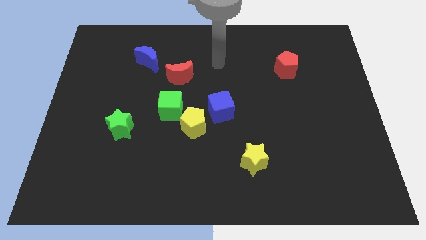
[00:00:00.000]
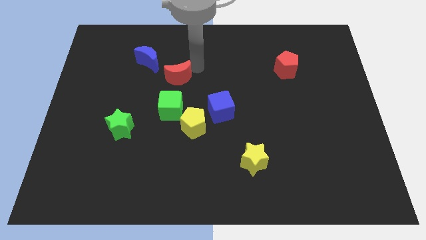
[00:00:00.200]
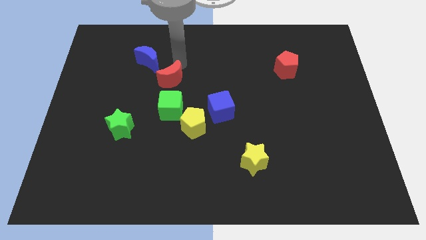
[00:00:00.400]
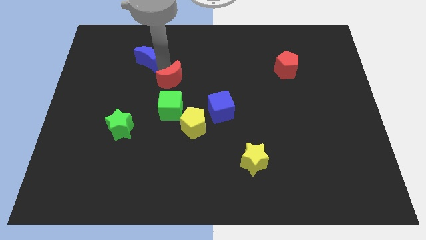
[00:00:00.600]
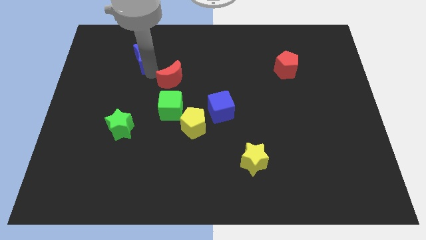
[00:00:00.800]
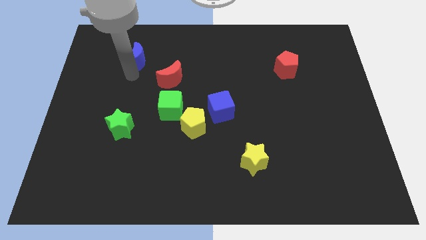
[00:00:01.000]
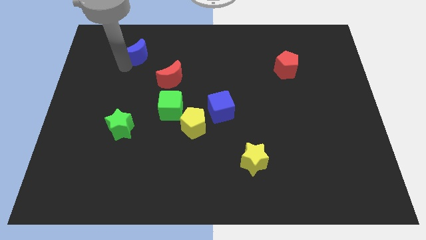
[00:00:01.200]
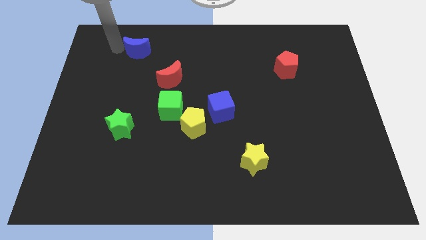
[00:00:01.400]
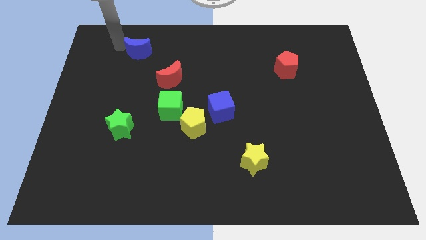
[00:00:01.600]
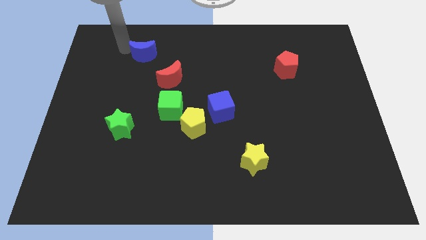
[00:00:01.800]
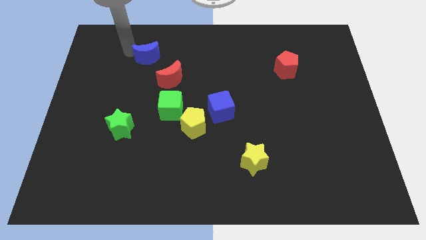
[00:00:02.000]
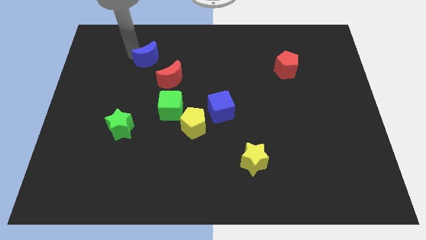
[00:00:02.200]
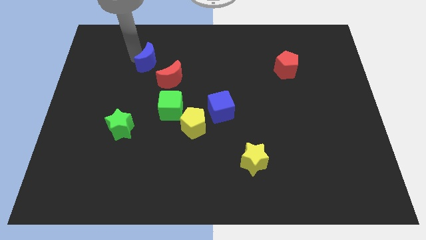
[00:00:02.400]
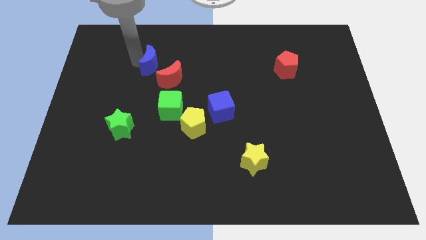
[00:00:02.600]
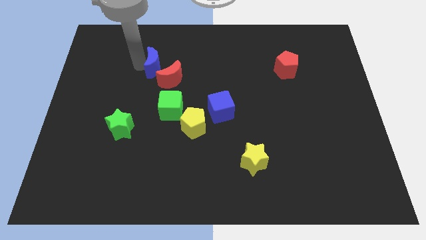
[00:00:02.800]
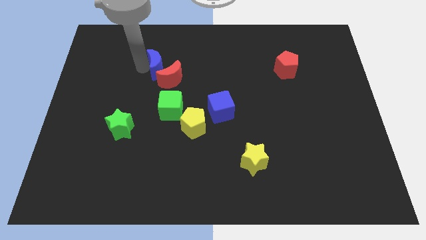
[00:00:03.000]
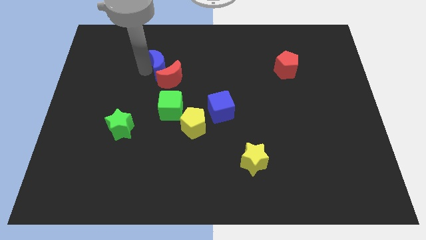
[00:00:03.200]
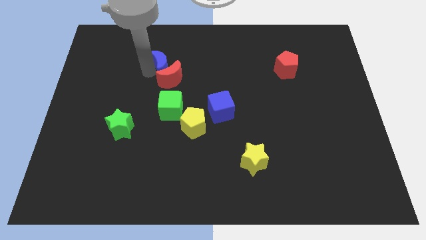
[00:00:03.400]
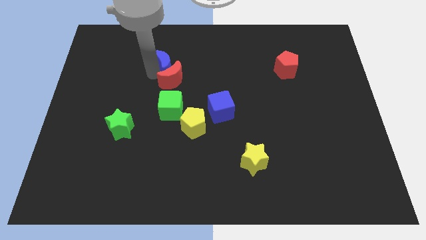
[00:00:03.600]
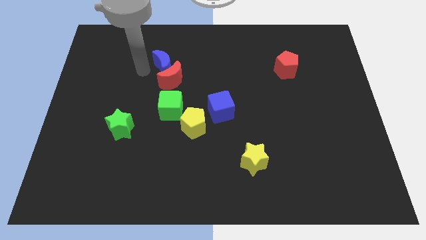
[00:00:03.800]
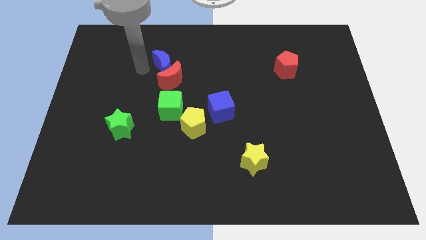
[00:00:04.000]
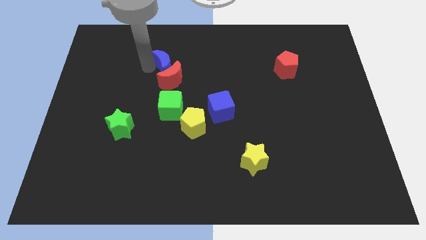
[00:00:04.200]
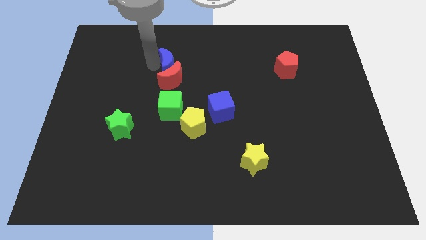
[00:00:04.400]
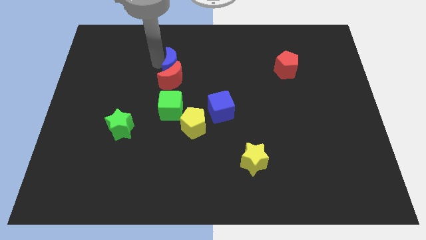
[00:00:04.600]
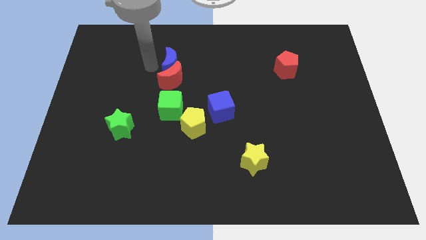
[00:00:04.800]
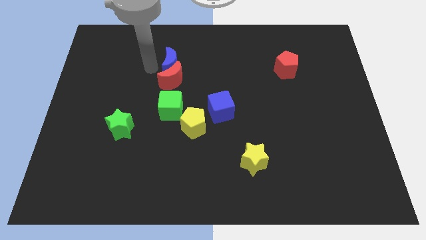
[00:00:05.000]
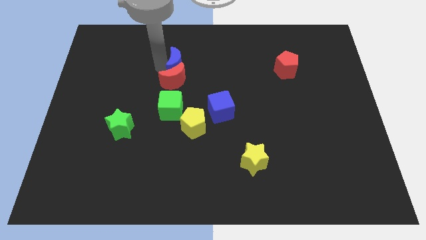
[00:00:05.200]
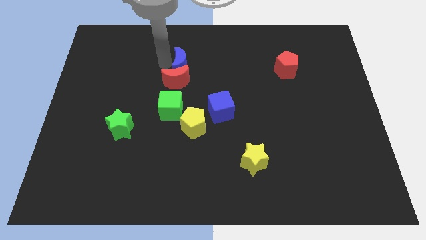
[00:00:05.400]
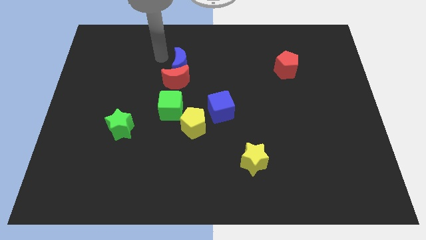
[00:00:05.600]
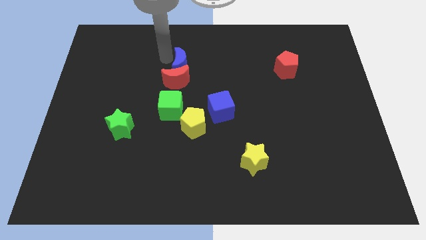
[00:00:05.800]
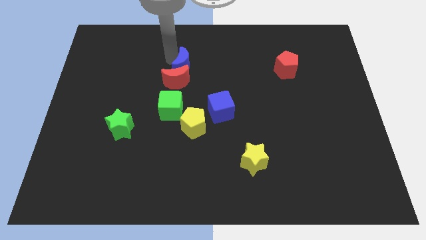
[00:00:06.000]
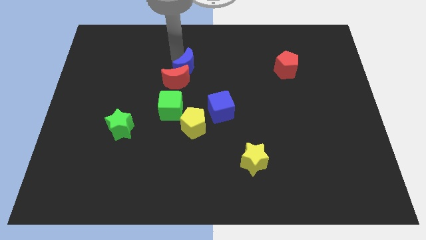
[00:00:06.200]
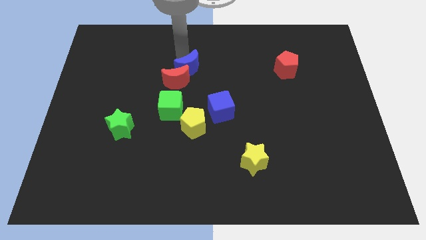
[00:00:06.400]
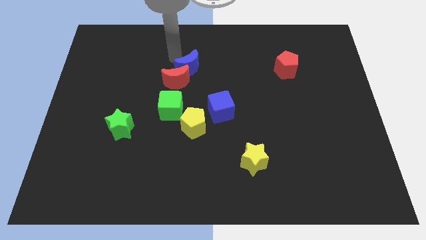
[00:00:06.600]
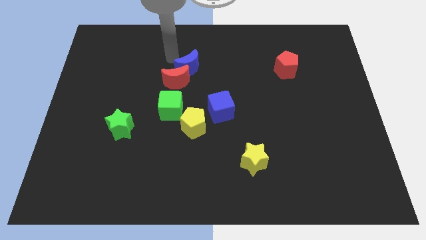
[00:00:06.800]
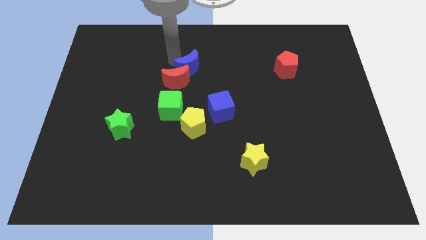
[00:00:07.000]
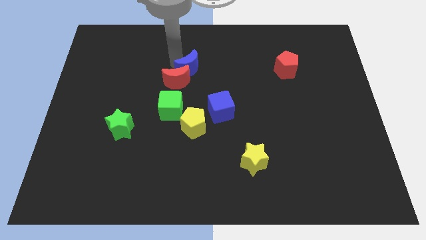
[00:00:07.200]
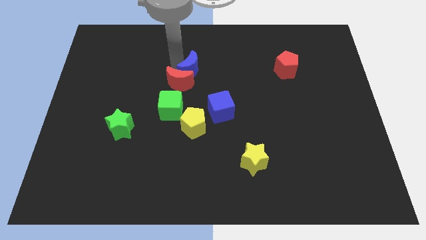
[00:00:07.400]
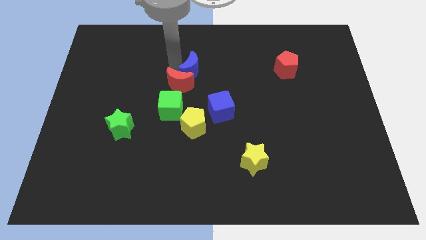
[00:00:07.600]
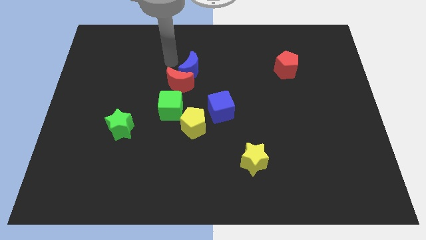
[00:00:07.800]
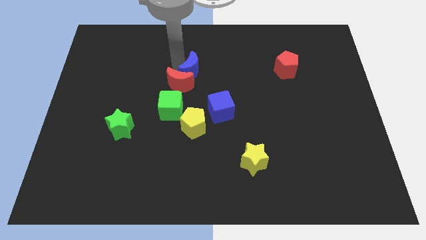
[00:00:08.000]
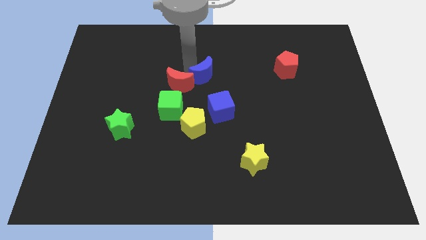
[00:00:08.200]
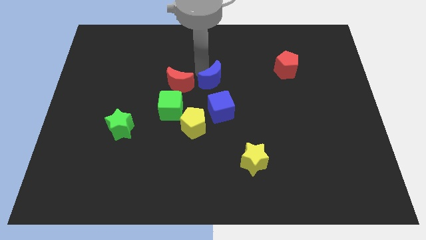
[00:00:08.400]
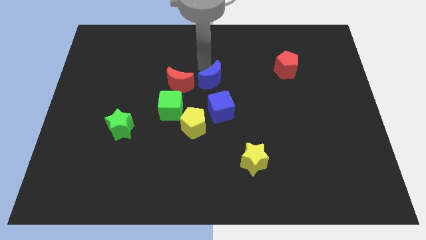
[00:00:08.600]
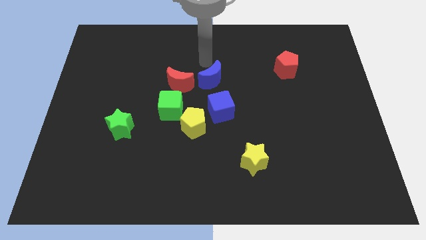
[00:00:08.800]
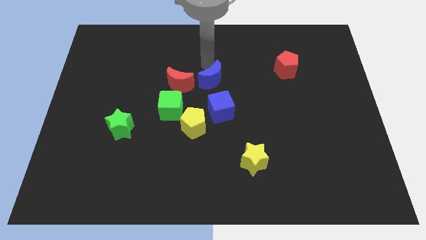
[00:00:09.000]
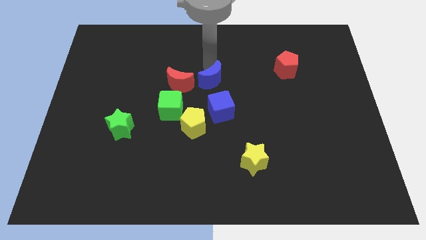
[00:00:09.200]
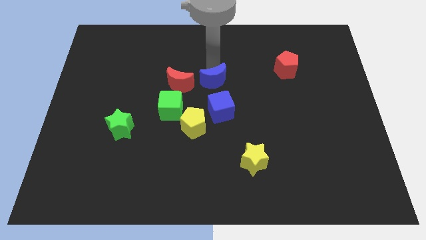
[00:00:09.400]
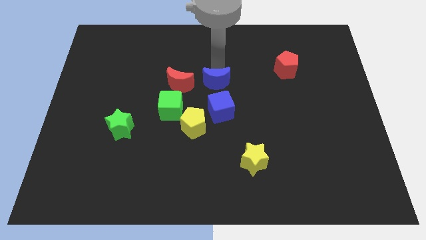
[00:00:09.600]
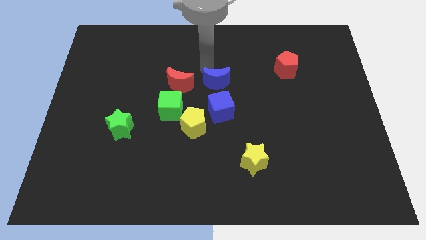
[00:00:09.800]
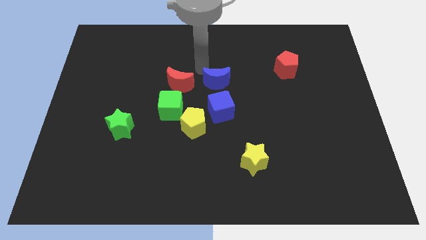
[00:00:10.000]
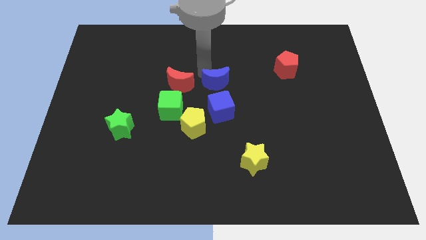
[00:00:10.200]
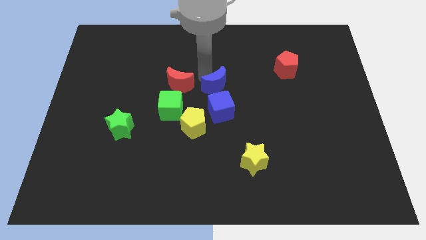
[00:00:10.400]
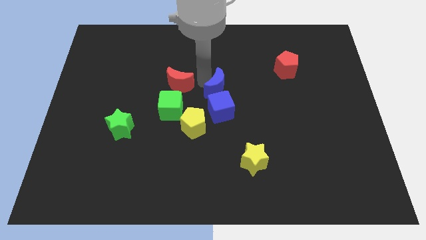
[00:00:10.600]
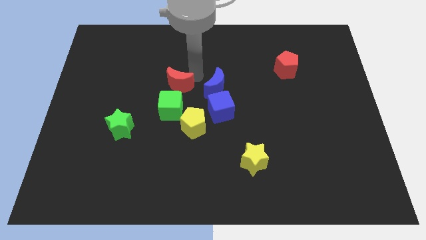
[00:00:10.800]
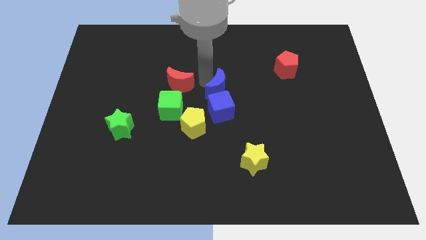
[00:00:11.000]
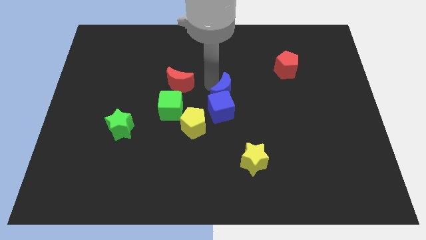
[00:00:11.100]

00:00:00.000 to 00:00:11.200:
push the blue moon down and to the right diagonally

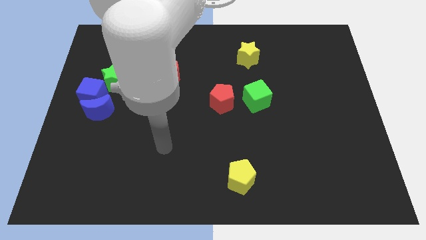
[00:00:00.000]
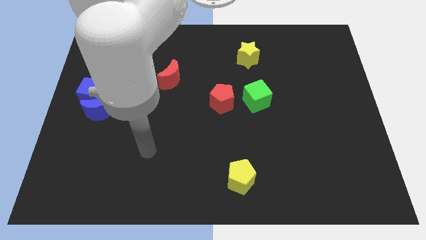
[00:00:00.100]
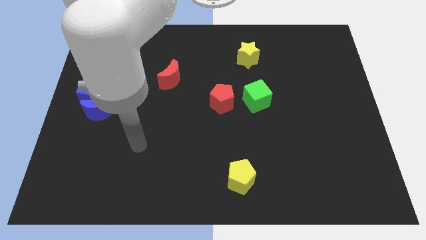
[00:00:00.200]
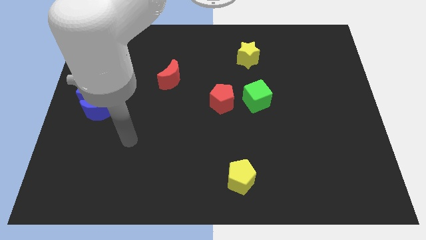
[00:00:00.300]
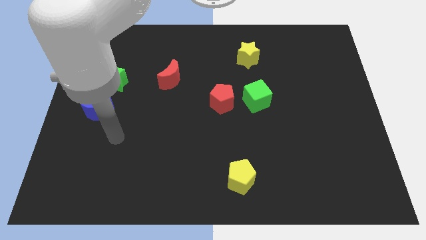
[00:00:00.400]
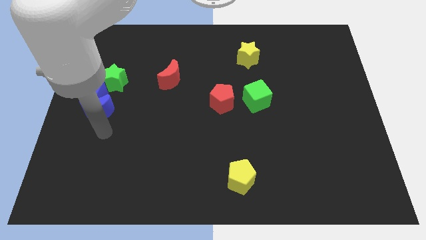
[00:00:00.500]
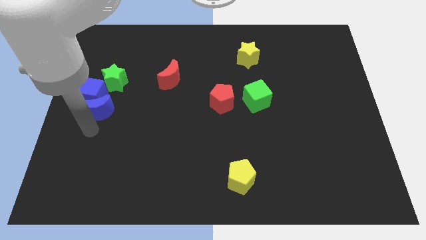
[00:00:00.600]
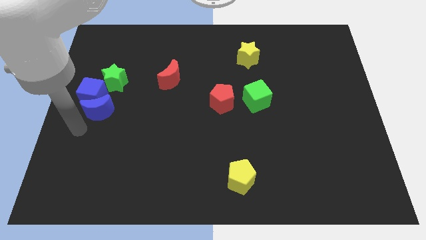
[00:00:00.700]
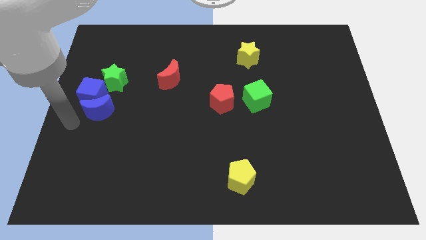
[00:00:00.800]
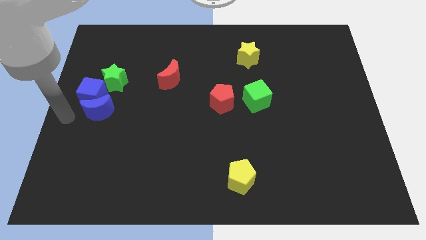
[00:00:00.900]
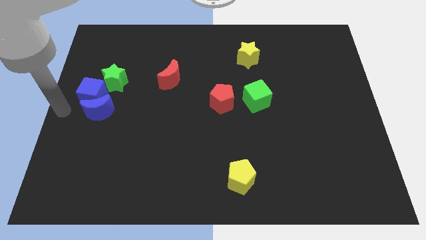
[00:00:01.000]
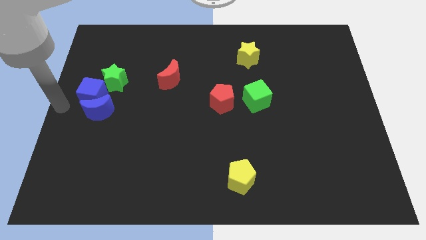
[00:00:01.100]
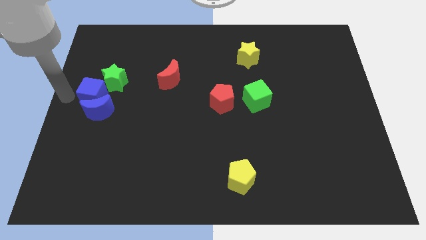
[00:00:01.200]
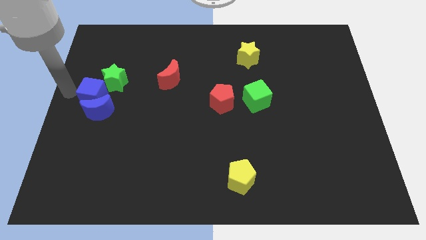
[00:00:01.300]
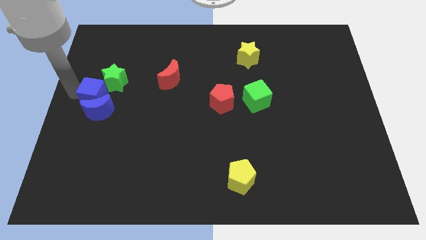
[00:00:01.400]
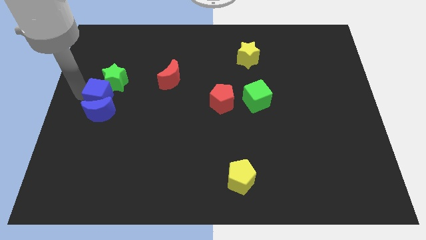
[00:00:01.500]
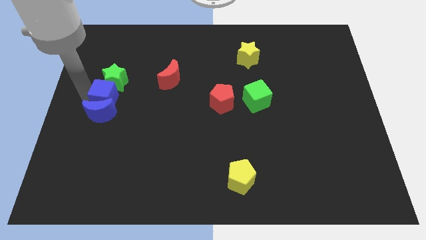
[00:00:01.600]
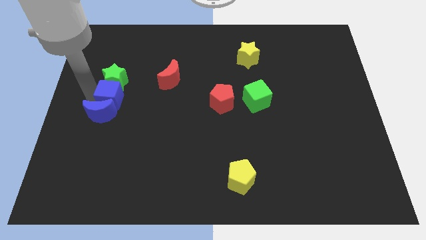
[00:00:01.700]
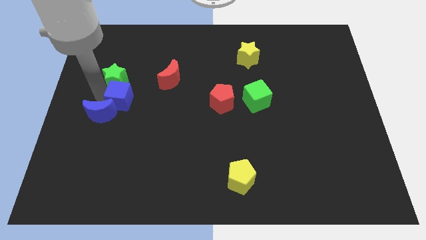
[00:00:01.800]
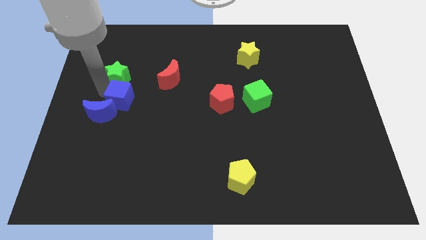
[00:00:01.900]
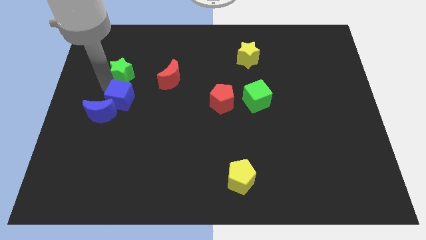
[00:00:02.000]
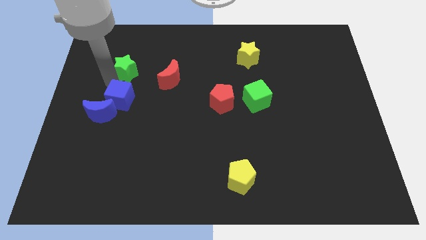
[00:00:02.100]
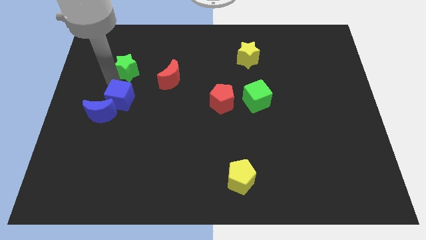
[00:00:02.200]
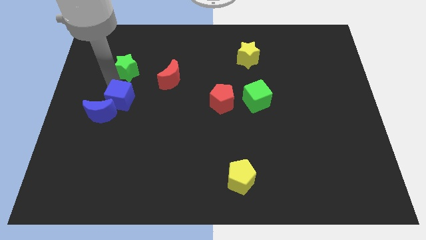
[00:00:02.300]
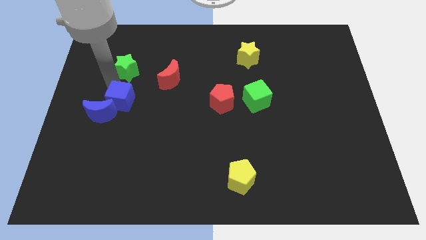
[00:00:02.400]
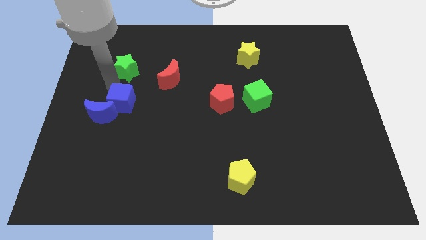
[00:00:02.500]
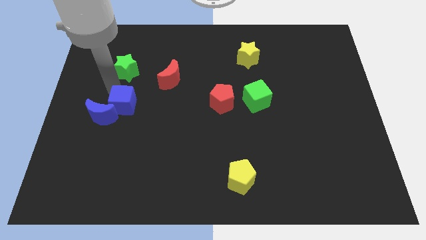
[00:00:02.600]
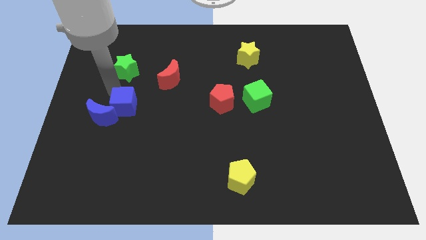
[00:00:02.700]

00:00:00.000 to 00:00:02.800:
slide the blue cube slightly diagonally down and right

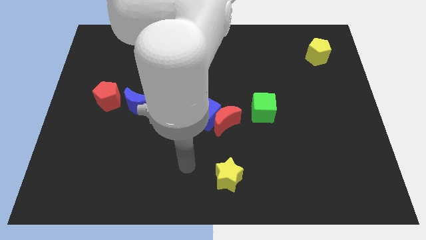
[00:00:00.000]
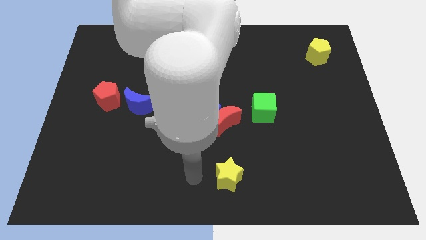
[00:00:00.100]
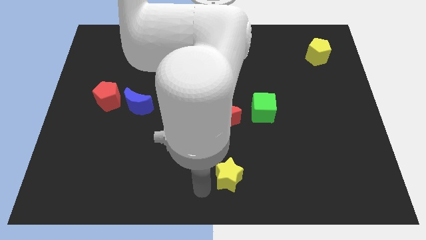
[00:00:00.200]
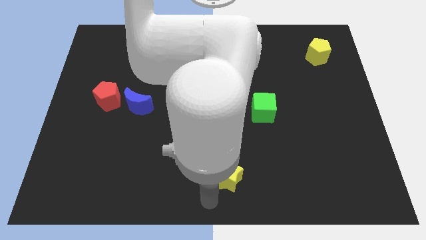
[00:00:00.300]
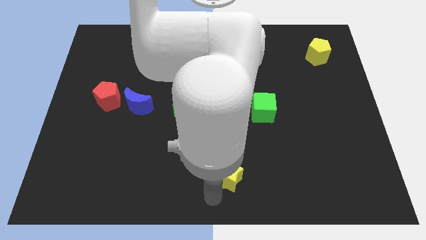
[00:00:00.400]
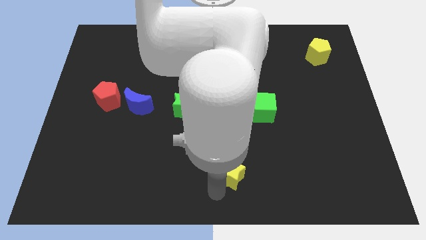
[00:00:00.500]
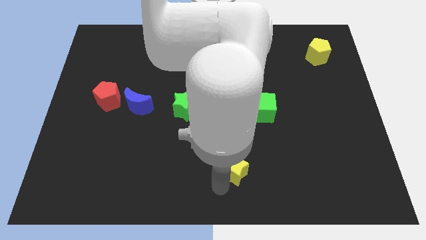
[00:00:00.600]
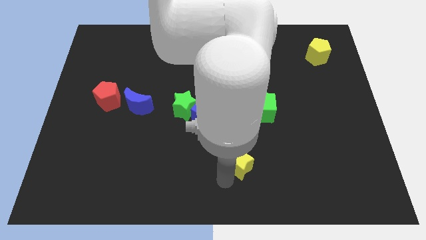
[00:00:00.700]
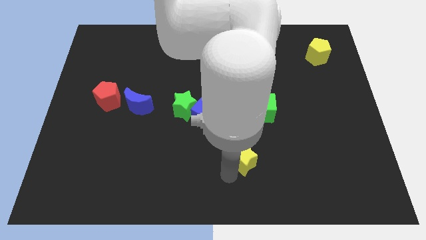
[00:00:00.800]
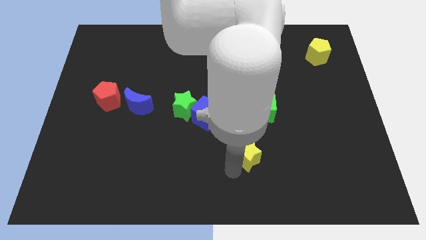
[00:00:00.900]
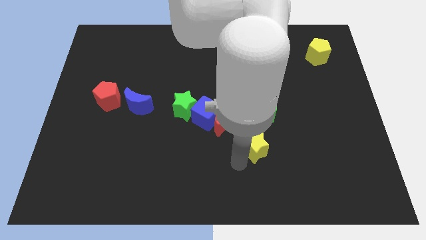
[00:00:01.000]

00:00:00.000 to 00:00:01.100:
push the yellow star somewhat diagonally upwards and right
